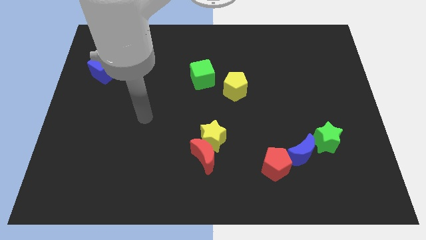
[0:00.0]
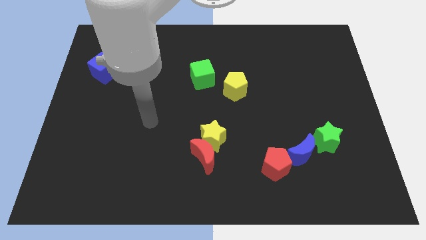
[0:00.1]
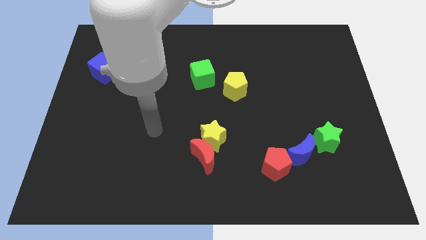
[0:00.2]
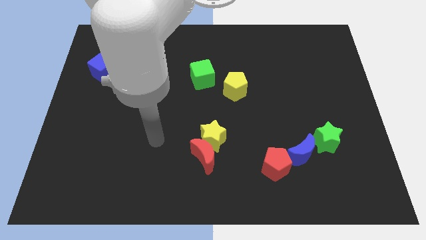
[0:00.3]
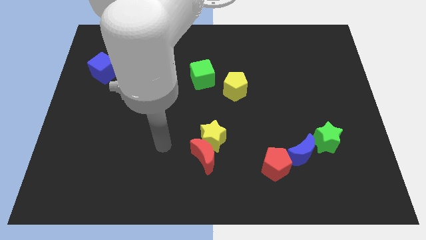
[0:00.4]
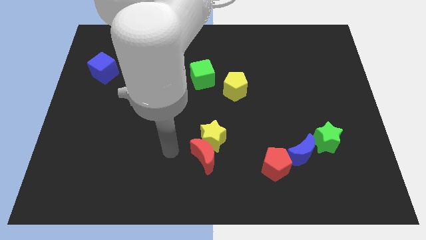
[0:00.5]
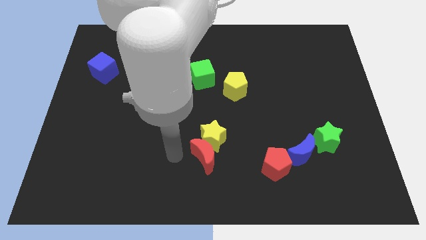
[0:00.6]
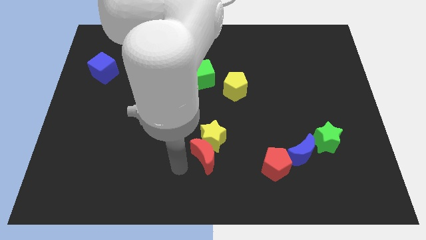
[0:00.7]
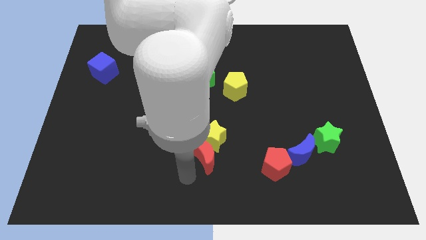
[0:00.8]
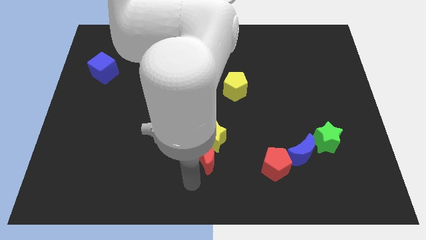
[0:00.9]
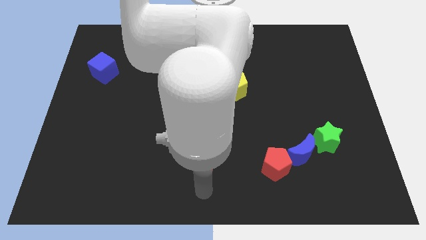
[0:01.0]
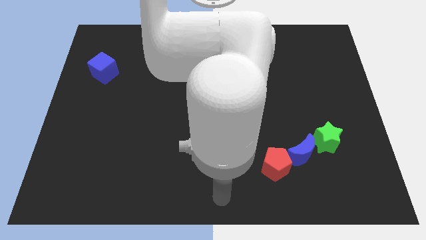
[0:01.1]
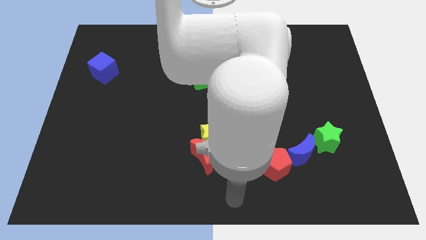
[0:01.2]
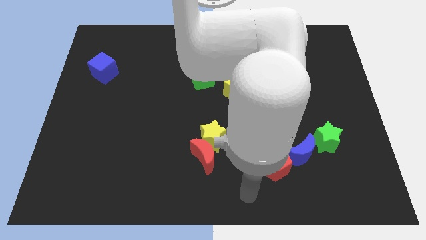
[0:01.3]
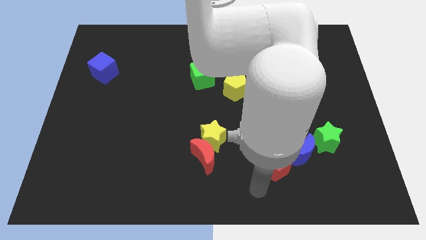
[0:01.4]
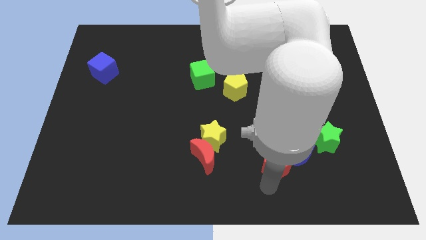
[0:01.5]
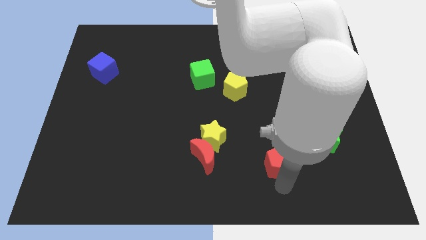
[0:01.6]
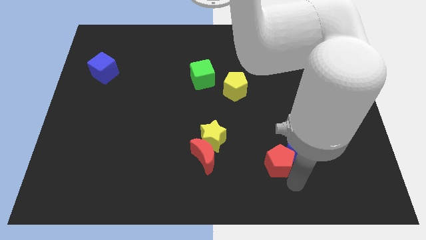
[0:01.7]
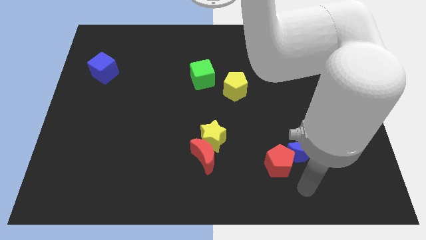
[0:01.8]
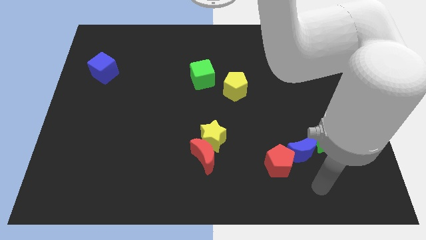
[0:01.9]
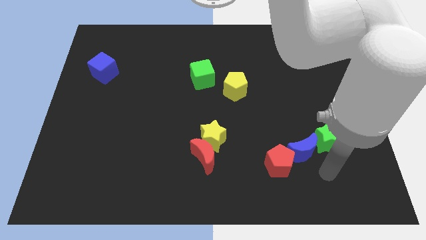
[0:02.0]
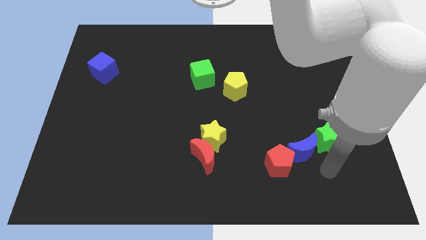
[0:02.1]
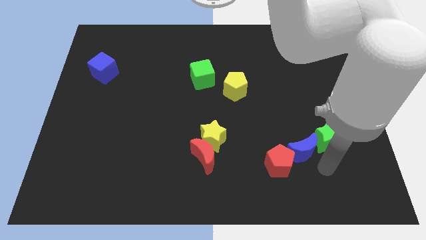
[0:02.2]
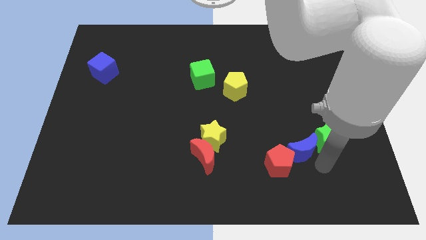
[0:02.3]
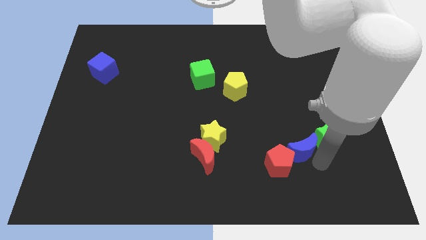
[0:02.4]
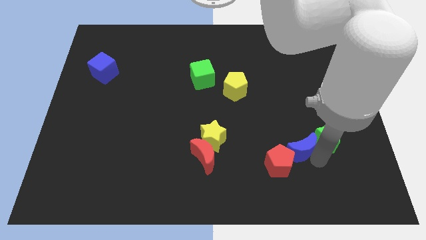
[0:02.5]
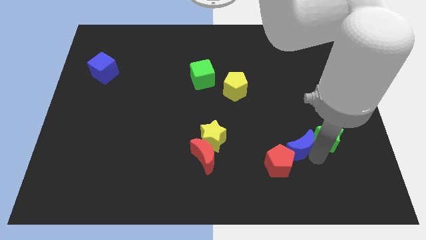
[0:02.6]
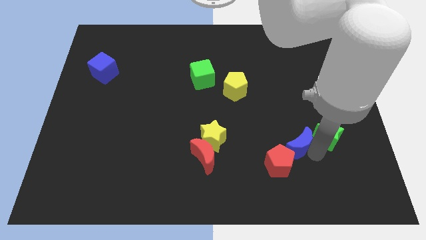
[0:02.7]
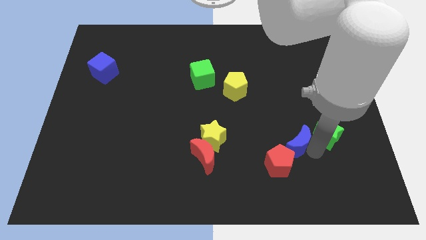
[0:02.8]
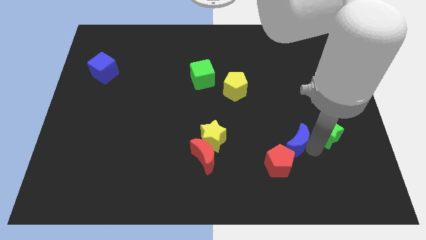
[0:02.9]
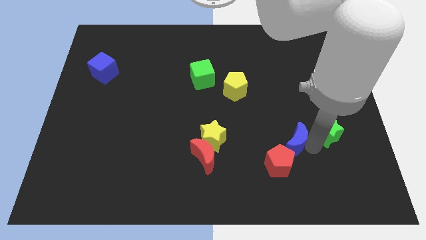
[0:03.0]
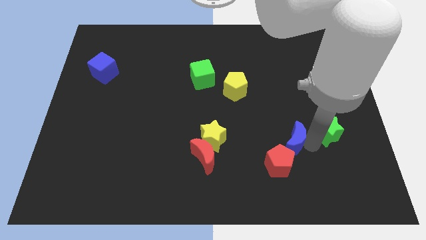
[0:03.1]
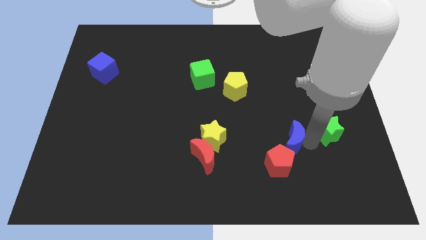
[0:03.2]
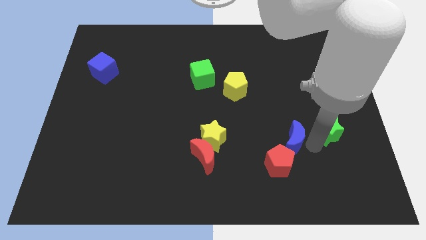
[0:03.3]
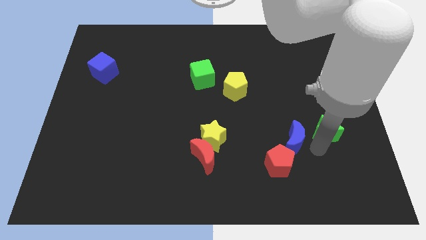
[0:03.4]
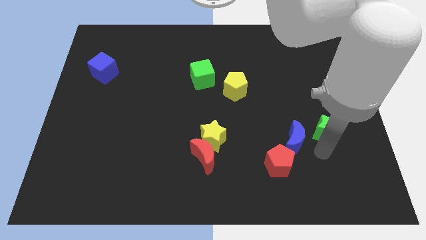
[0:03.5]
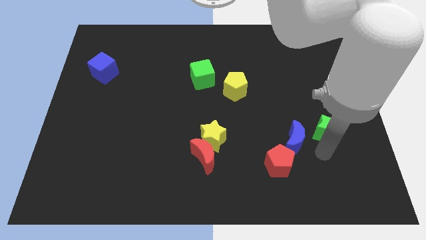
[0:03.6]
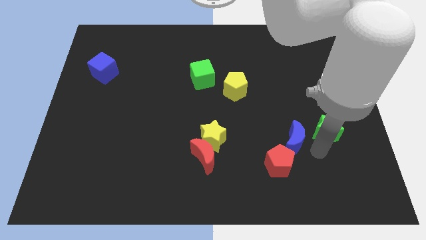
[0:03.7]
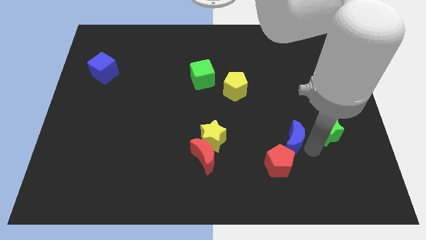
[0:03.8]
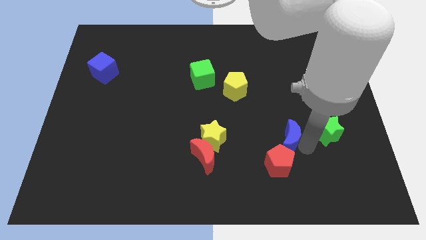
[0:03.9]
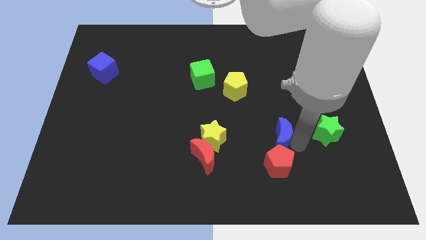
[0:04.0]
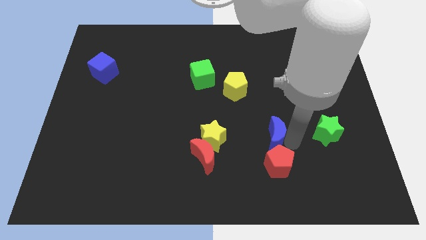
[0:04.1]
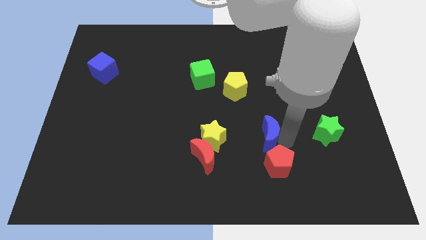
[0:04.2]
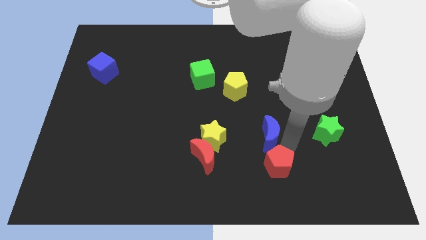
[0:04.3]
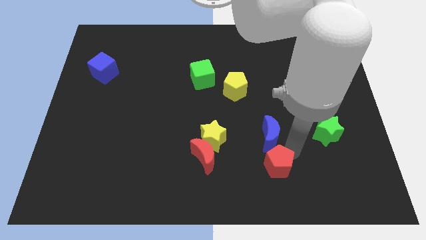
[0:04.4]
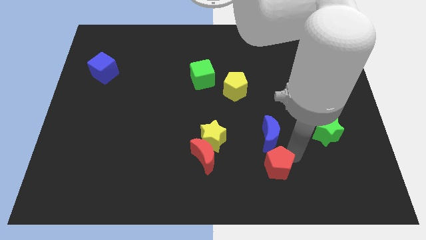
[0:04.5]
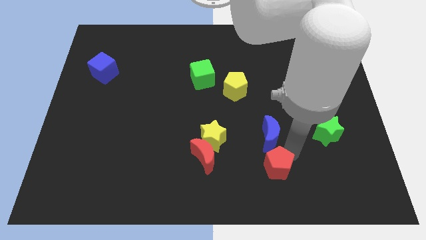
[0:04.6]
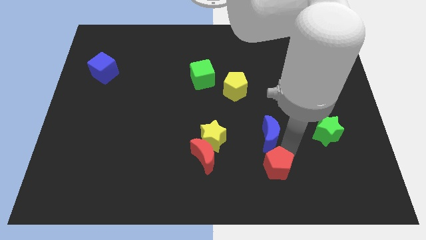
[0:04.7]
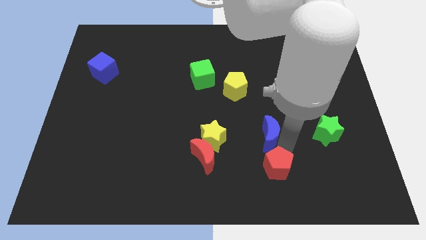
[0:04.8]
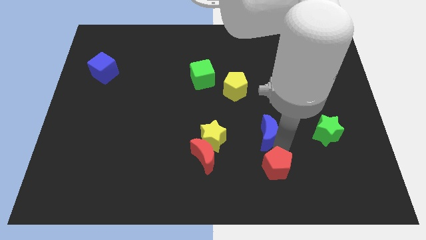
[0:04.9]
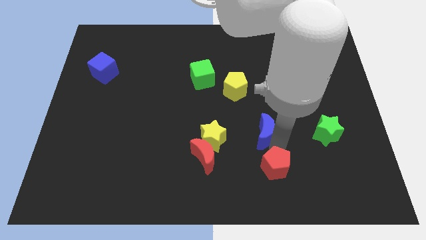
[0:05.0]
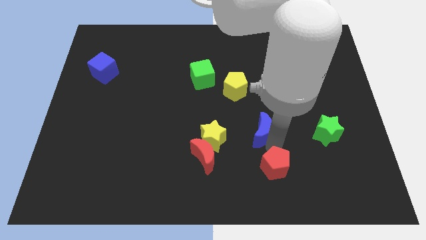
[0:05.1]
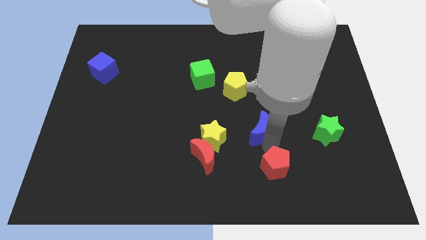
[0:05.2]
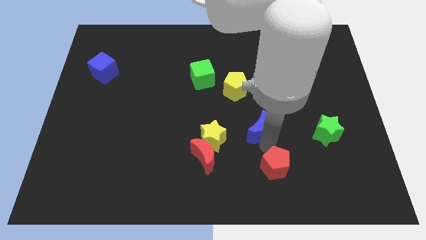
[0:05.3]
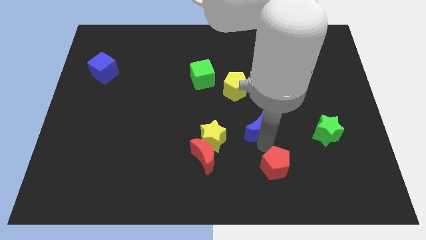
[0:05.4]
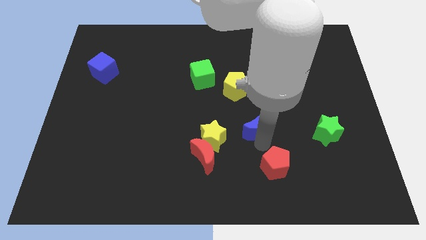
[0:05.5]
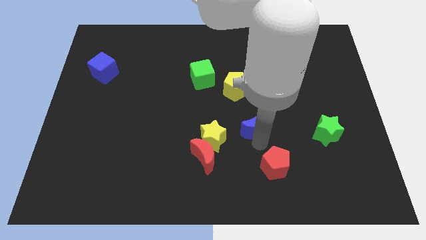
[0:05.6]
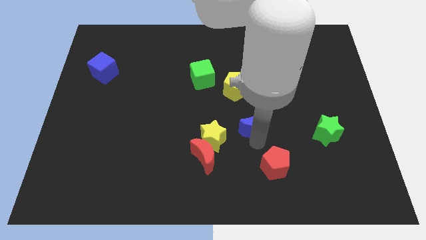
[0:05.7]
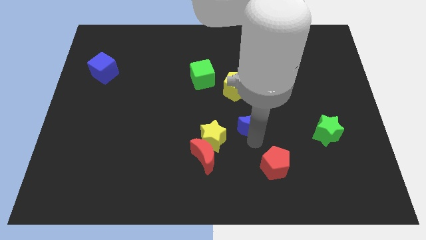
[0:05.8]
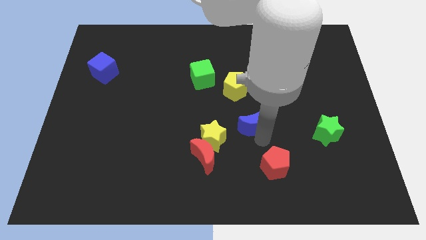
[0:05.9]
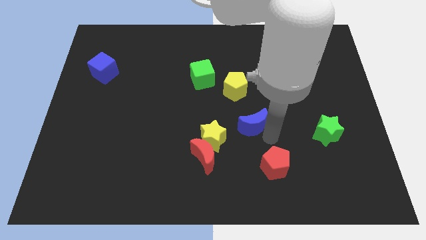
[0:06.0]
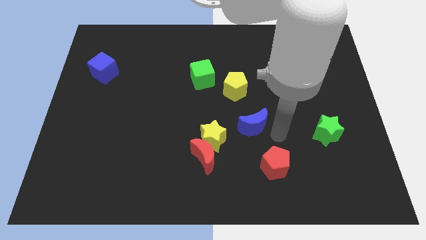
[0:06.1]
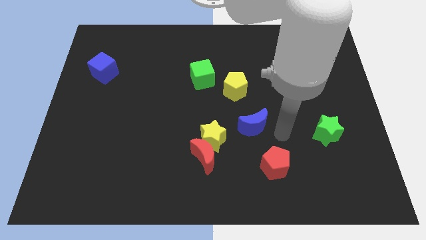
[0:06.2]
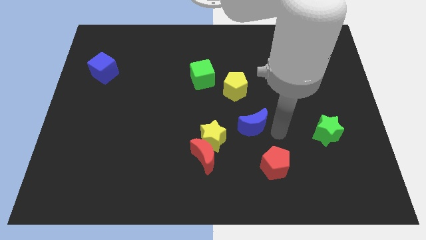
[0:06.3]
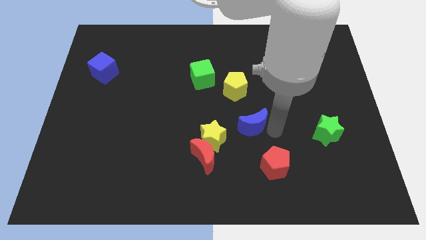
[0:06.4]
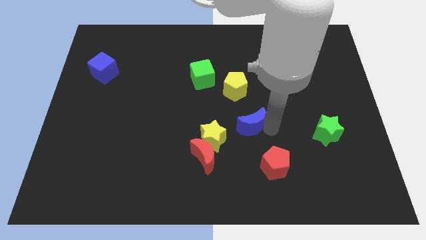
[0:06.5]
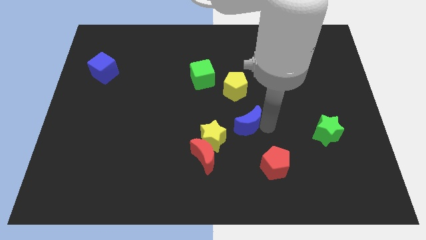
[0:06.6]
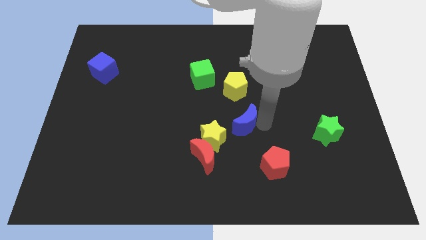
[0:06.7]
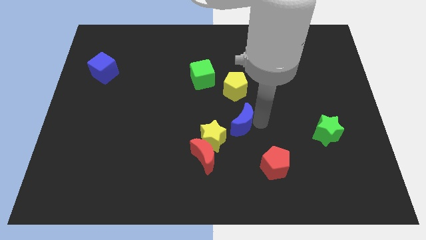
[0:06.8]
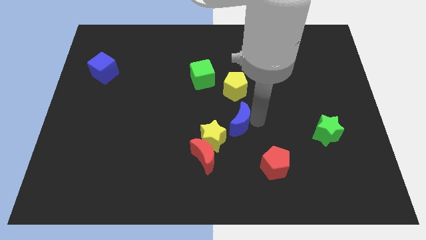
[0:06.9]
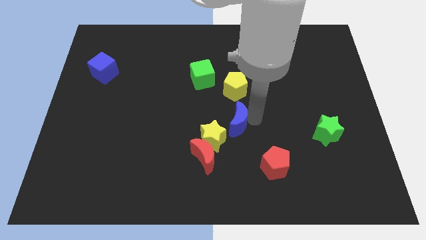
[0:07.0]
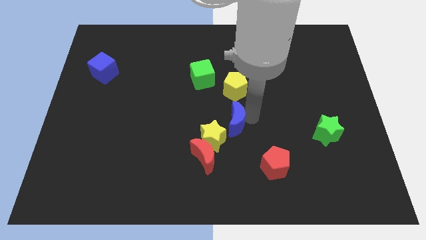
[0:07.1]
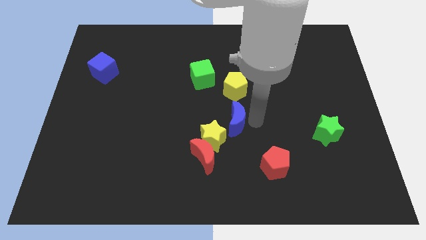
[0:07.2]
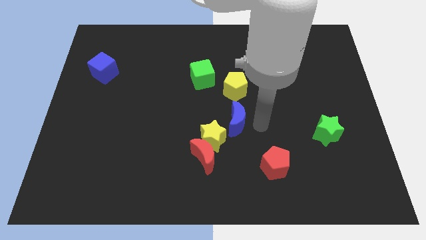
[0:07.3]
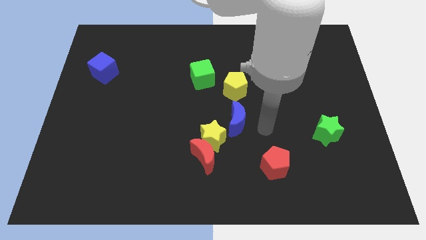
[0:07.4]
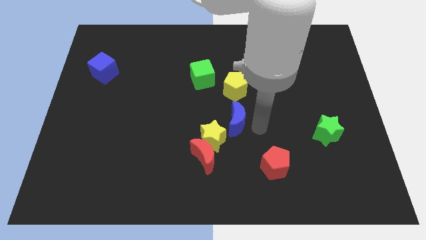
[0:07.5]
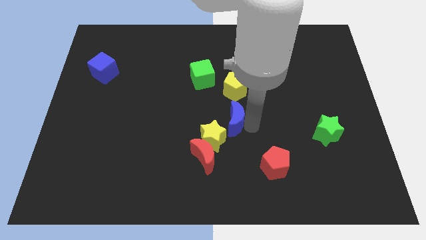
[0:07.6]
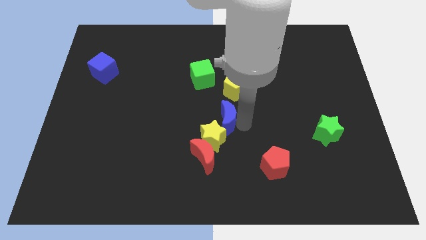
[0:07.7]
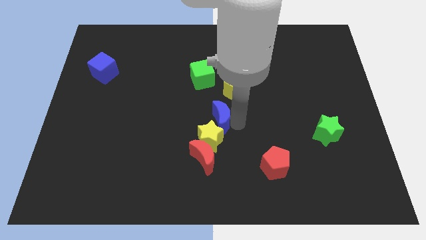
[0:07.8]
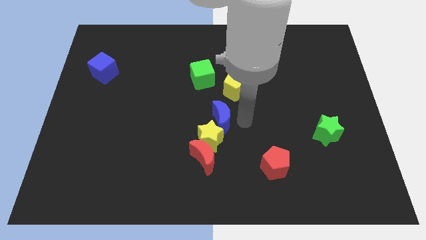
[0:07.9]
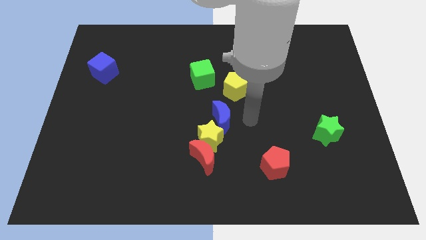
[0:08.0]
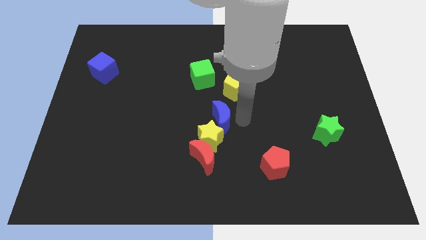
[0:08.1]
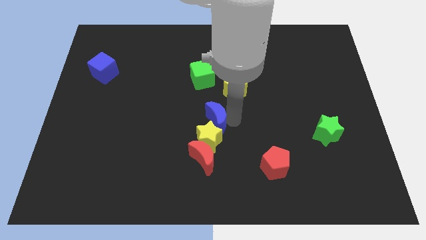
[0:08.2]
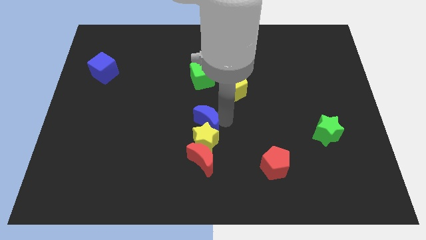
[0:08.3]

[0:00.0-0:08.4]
put the blue moon to the top left side of the yellow star
